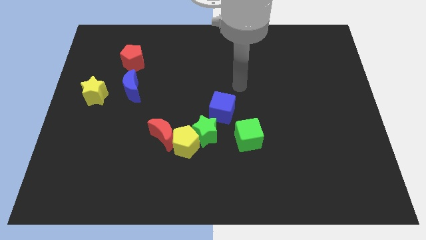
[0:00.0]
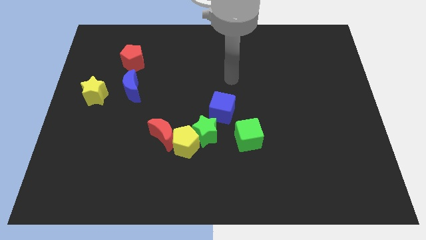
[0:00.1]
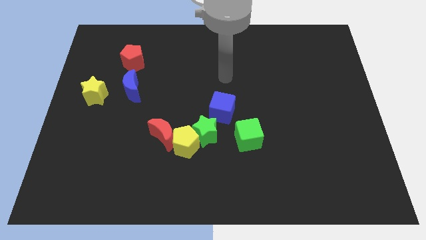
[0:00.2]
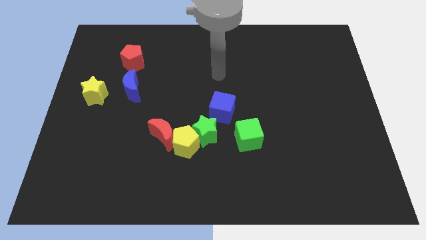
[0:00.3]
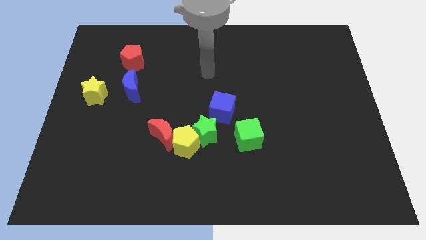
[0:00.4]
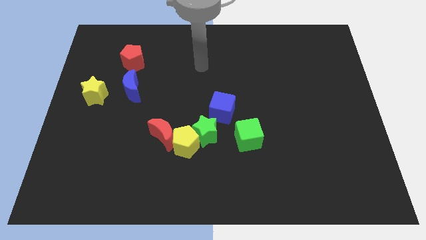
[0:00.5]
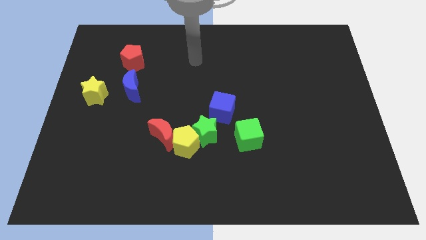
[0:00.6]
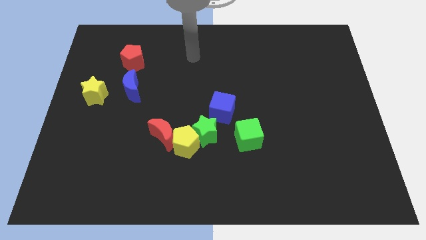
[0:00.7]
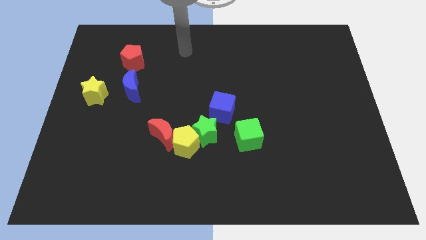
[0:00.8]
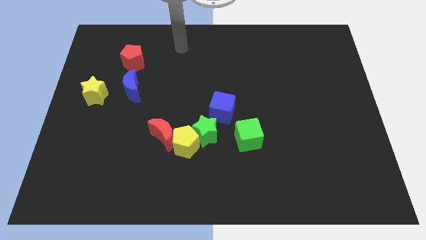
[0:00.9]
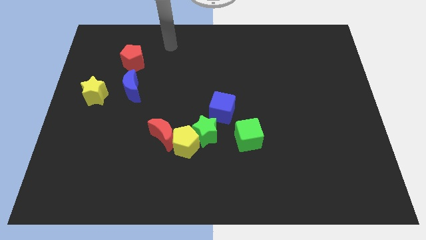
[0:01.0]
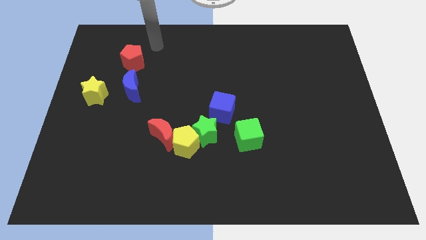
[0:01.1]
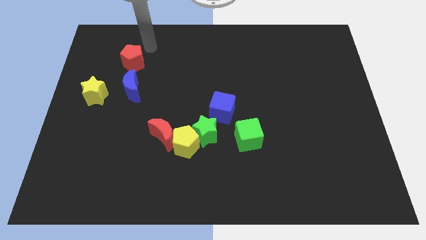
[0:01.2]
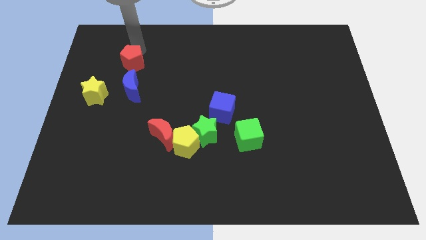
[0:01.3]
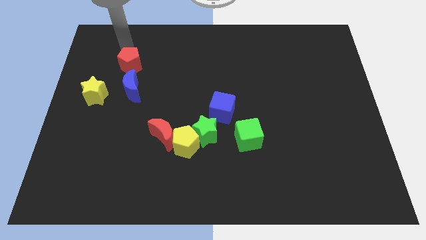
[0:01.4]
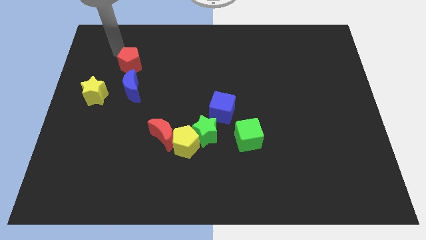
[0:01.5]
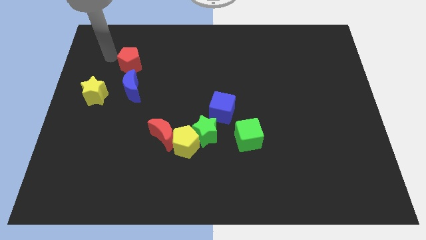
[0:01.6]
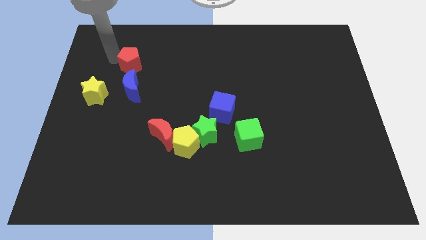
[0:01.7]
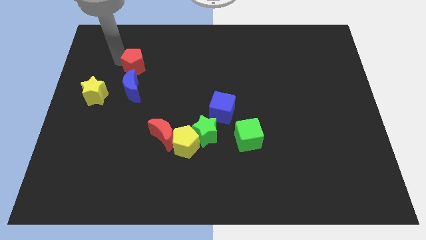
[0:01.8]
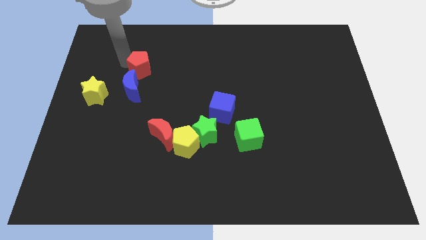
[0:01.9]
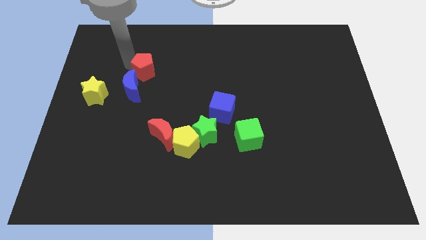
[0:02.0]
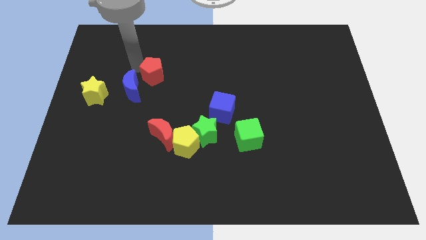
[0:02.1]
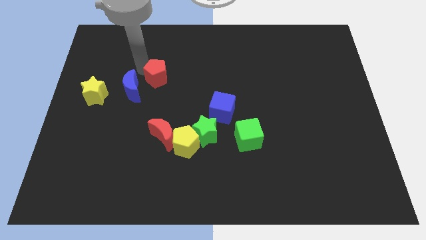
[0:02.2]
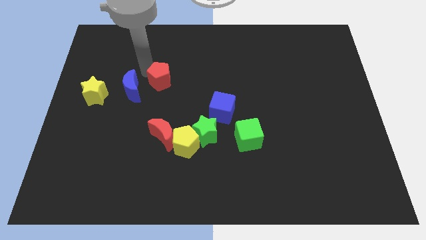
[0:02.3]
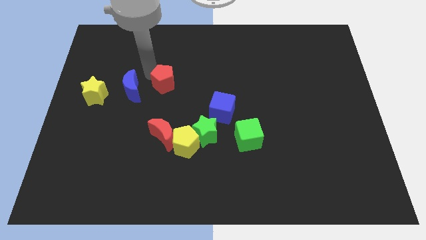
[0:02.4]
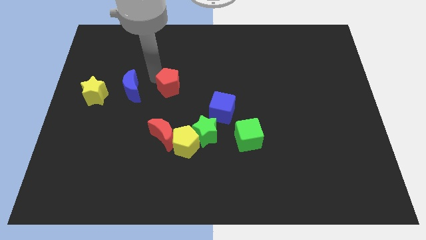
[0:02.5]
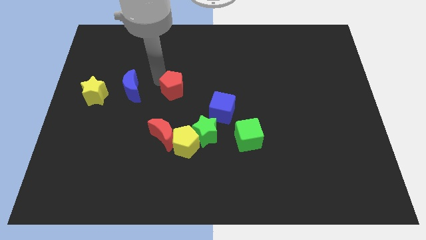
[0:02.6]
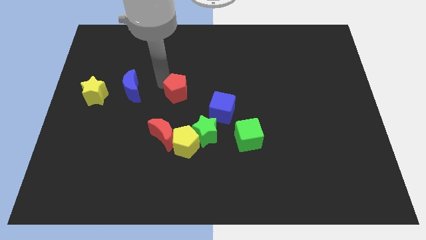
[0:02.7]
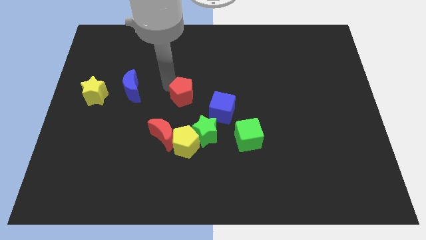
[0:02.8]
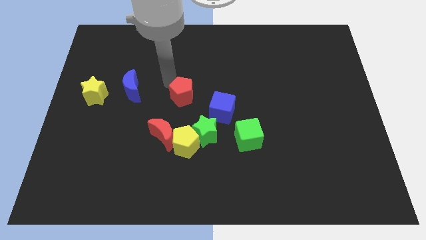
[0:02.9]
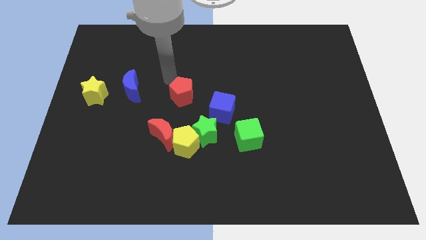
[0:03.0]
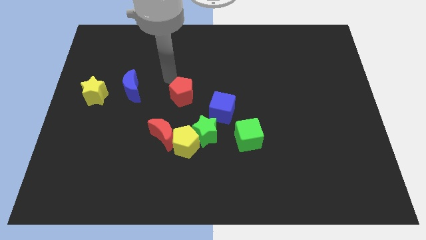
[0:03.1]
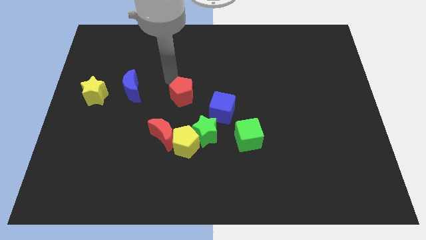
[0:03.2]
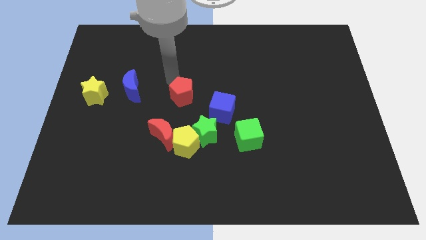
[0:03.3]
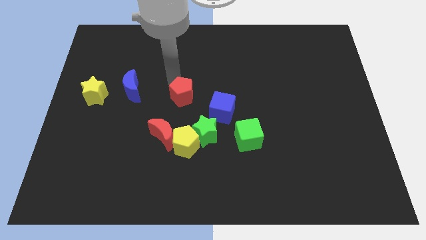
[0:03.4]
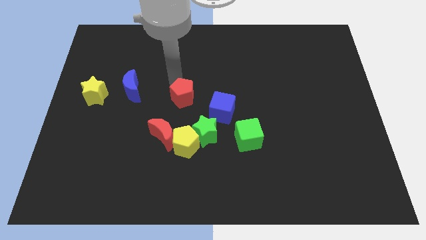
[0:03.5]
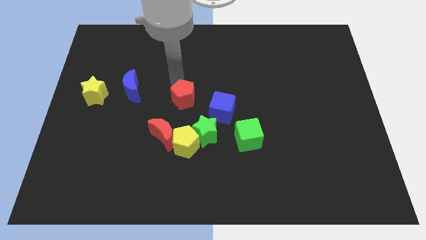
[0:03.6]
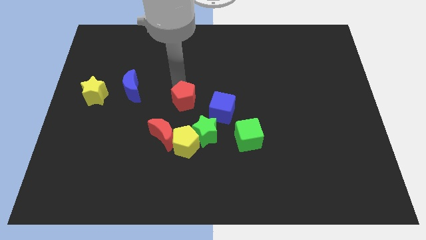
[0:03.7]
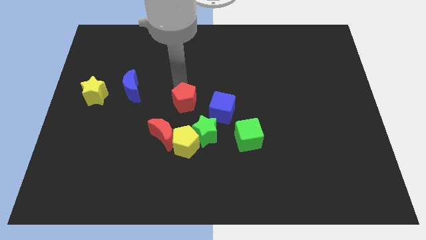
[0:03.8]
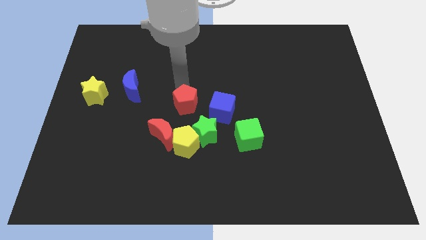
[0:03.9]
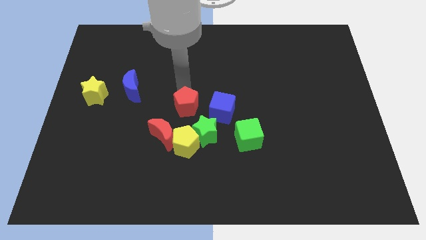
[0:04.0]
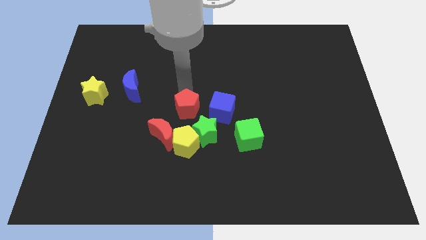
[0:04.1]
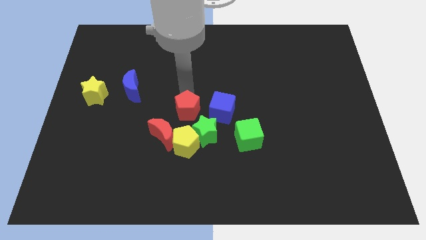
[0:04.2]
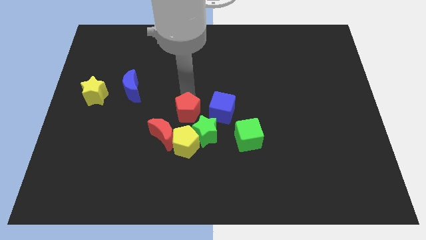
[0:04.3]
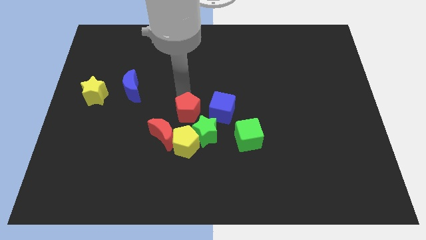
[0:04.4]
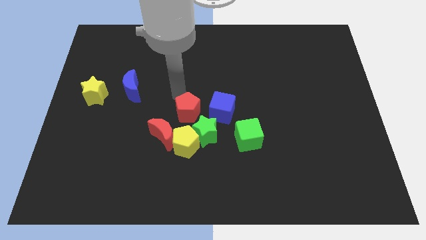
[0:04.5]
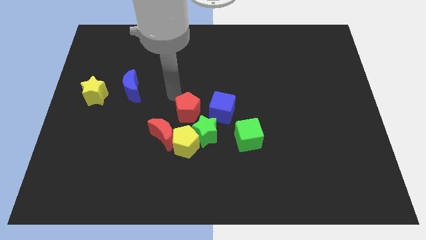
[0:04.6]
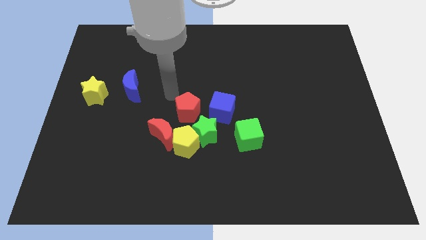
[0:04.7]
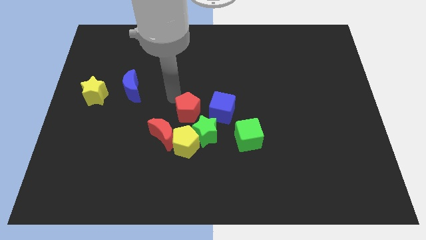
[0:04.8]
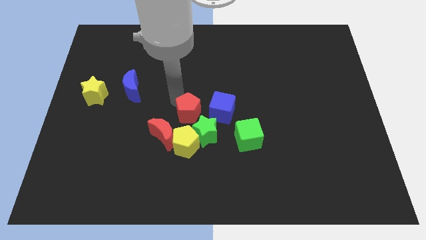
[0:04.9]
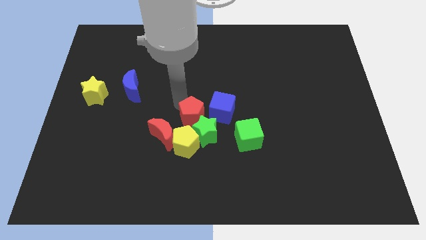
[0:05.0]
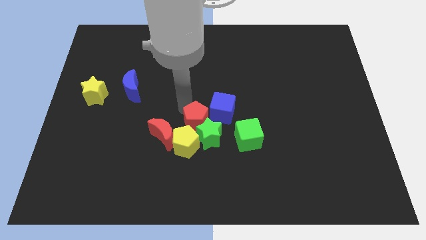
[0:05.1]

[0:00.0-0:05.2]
slide the red pentagon next to the green star

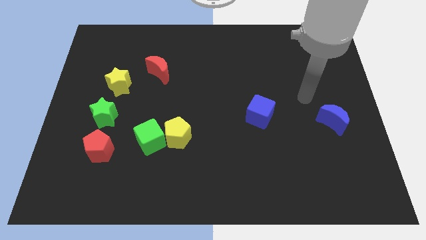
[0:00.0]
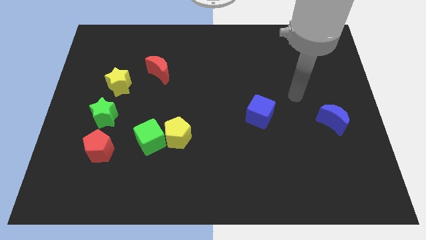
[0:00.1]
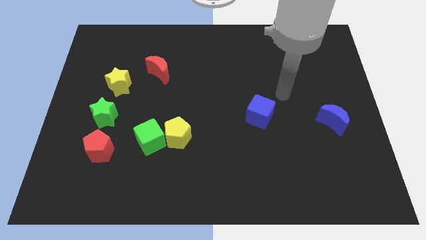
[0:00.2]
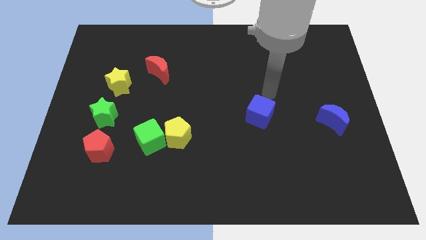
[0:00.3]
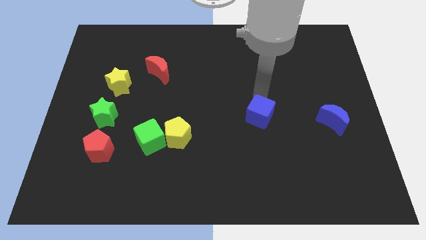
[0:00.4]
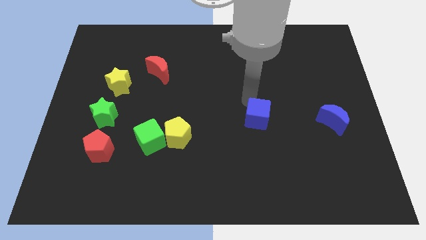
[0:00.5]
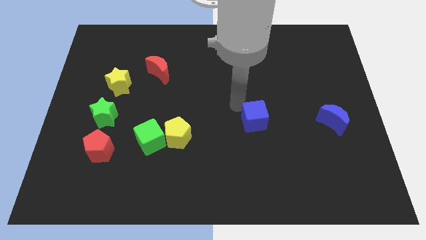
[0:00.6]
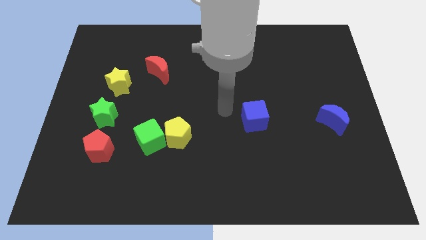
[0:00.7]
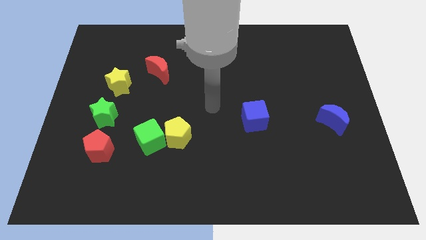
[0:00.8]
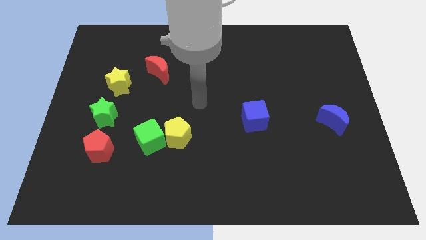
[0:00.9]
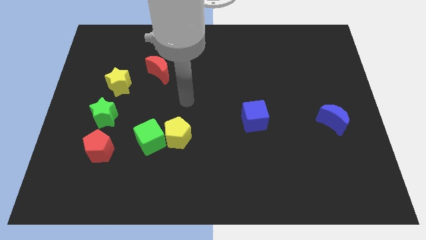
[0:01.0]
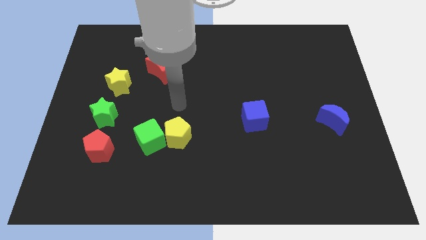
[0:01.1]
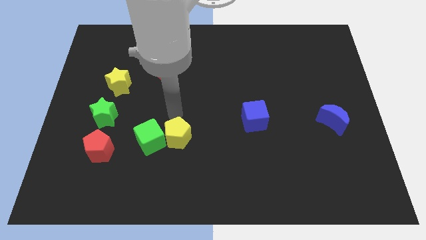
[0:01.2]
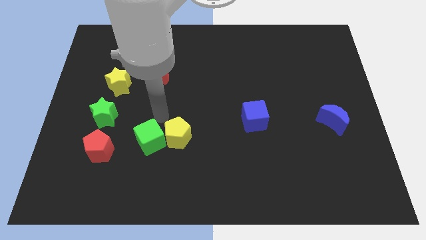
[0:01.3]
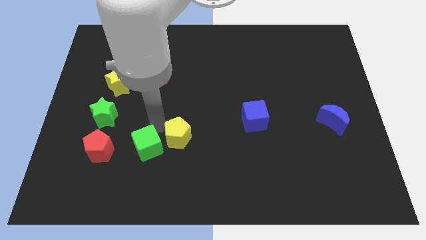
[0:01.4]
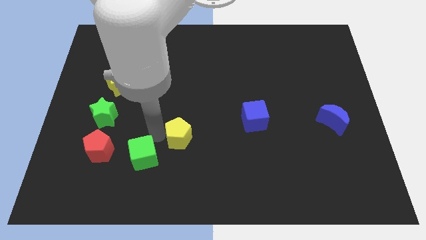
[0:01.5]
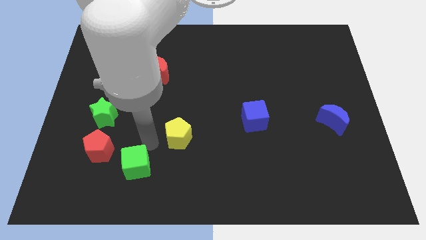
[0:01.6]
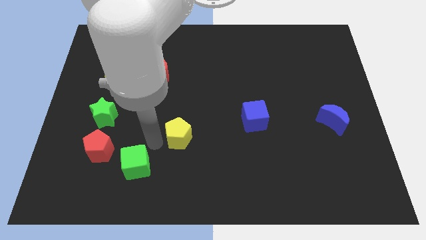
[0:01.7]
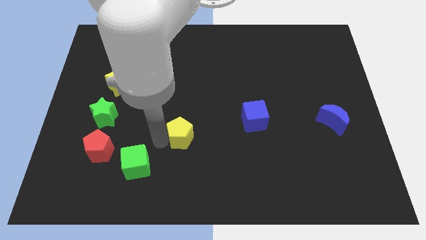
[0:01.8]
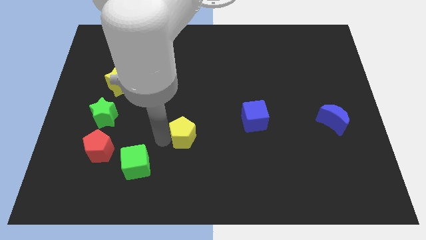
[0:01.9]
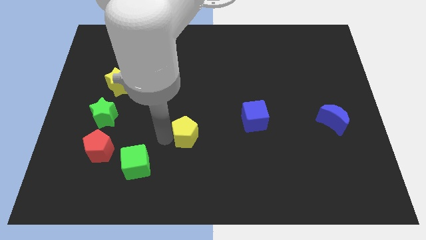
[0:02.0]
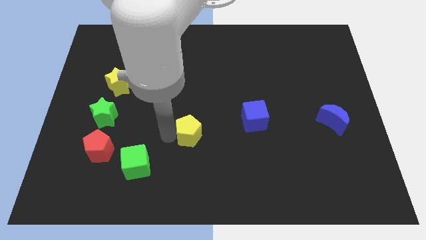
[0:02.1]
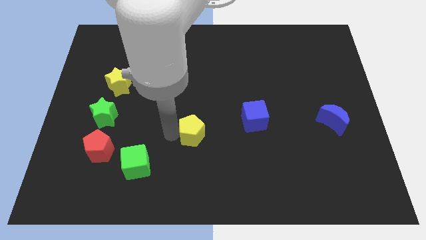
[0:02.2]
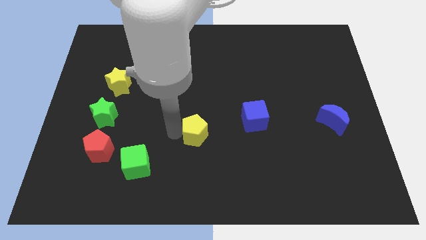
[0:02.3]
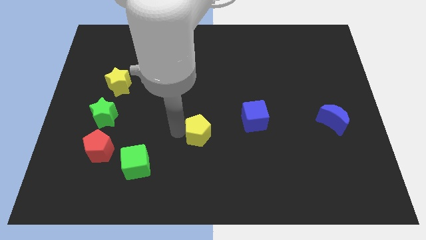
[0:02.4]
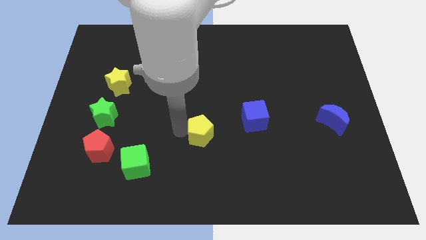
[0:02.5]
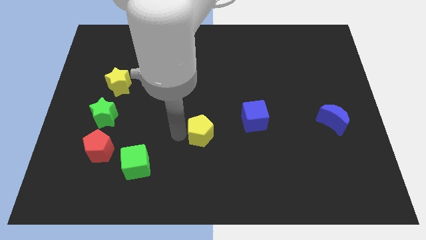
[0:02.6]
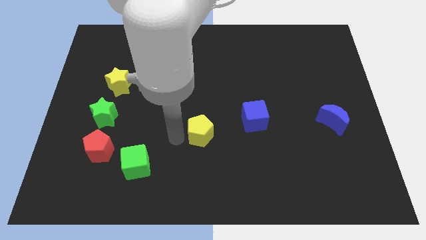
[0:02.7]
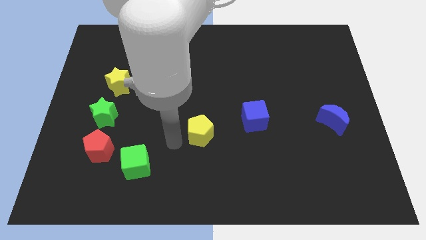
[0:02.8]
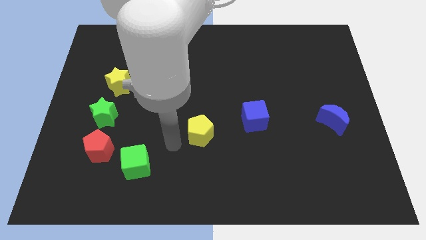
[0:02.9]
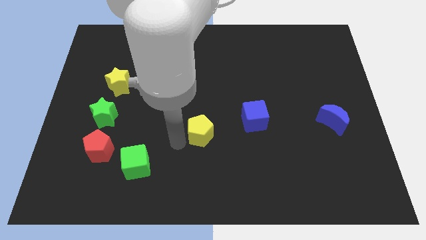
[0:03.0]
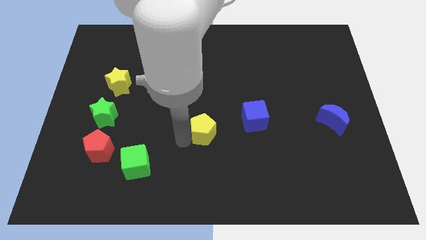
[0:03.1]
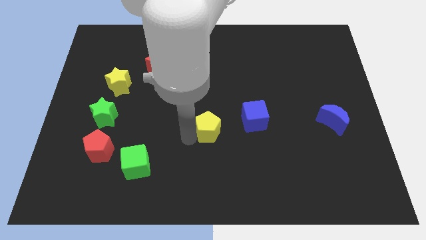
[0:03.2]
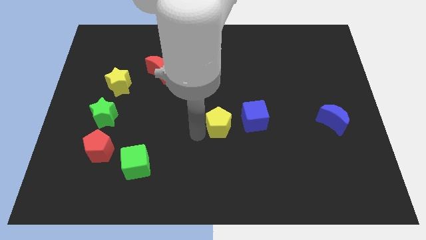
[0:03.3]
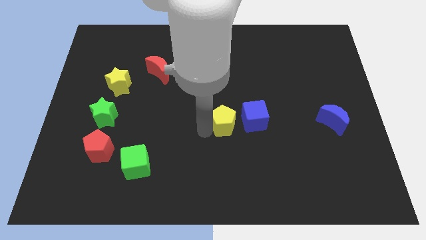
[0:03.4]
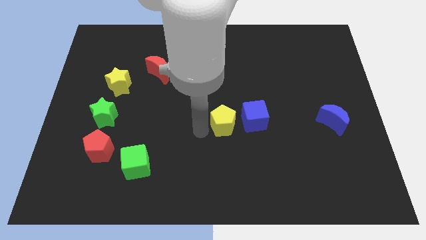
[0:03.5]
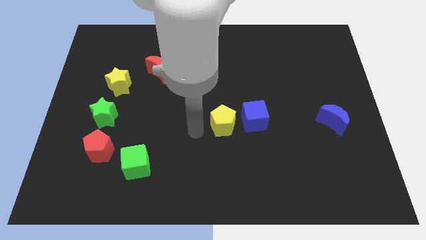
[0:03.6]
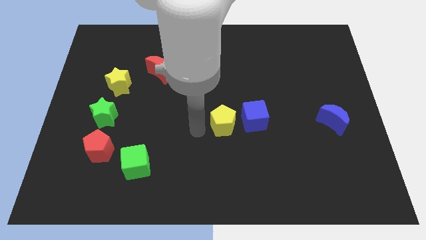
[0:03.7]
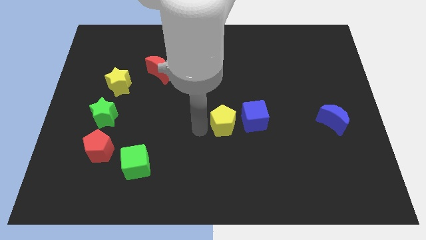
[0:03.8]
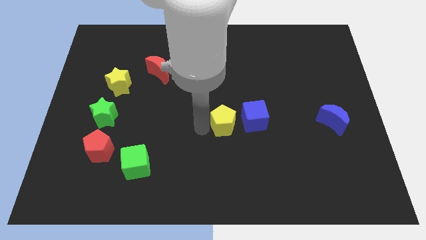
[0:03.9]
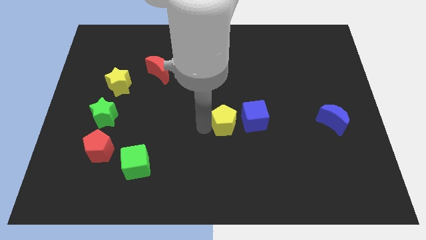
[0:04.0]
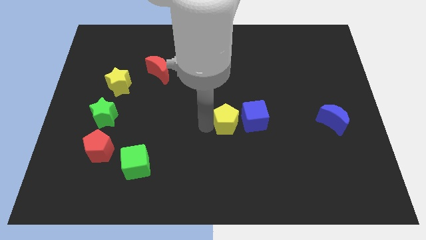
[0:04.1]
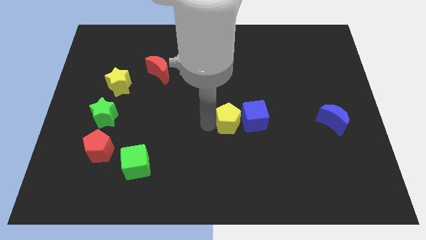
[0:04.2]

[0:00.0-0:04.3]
slide the yellow pentagon towards the blue cube
